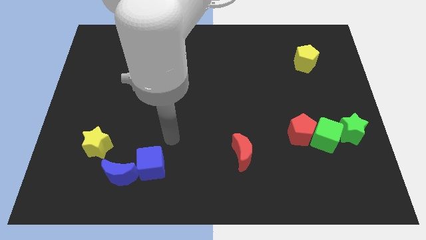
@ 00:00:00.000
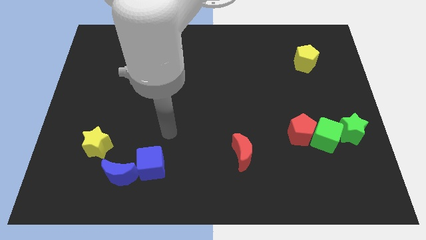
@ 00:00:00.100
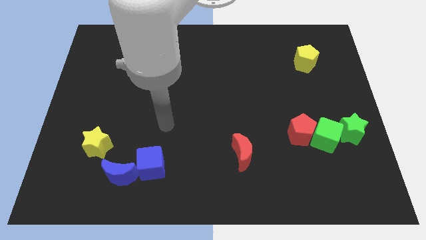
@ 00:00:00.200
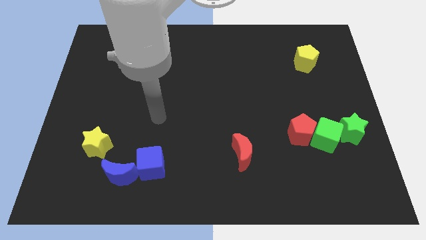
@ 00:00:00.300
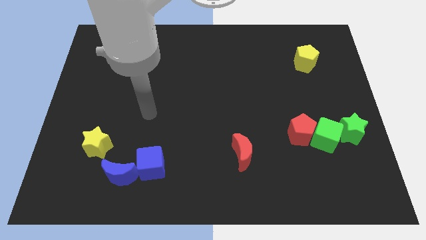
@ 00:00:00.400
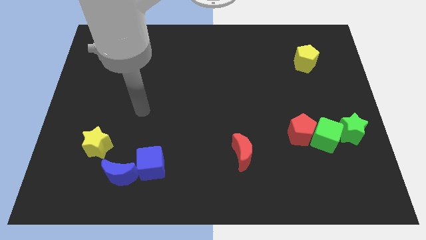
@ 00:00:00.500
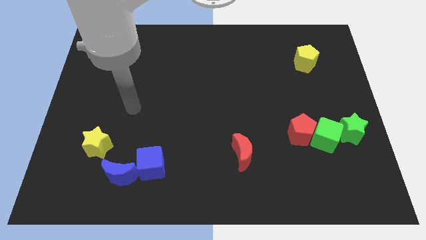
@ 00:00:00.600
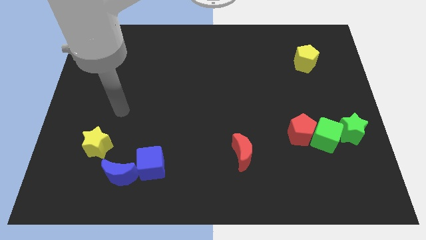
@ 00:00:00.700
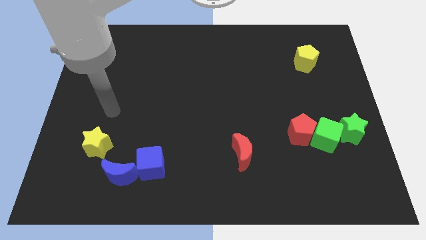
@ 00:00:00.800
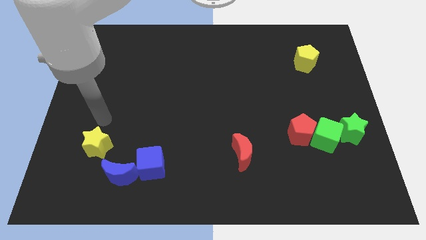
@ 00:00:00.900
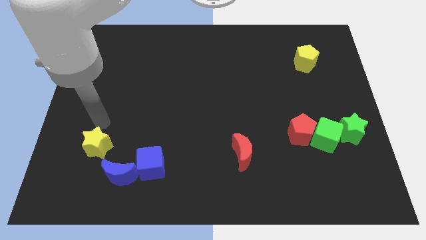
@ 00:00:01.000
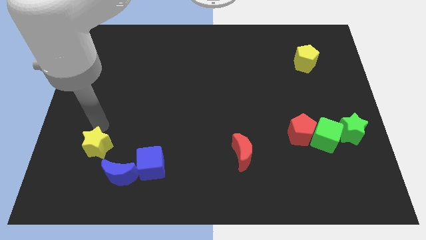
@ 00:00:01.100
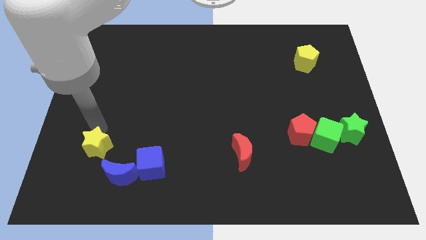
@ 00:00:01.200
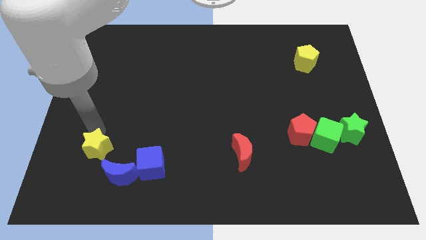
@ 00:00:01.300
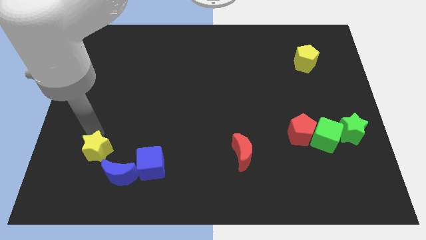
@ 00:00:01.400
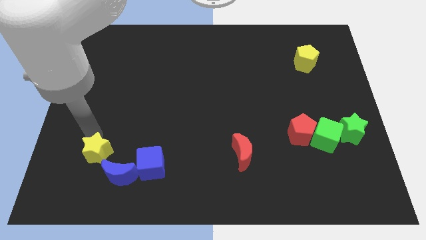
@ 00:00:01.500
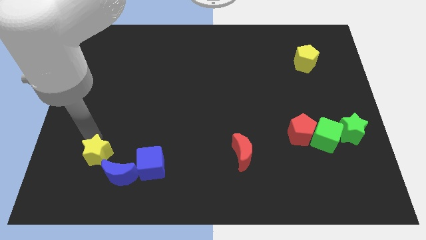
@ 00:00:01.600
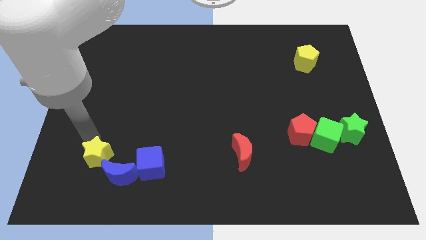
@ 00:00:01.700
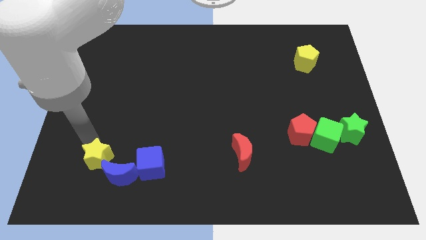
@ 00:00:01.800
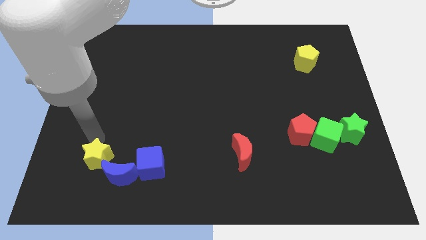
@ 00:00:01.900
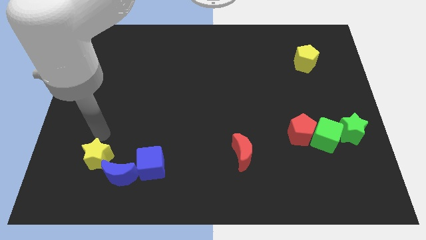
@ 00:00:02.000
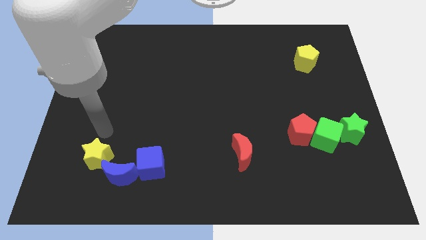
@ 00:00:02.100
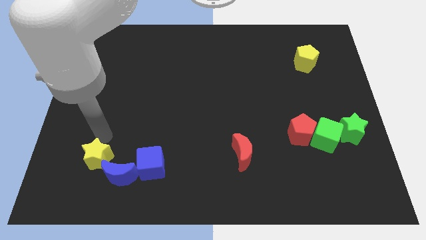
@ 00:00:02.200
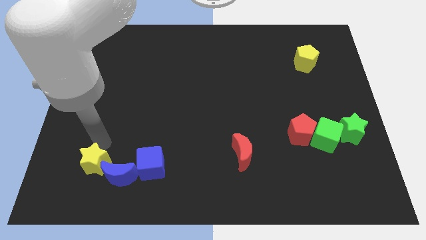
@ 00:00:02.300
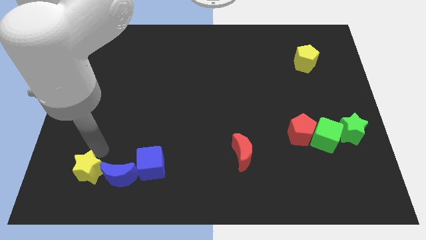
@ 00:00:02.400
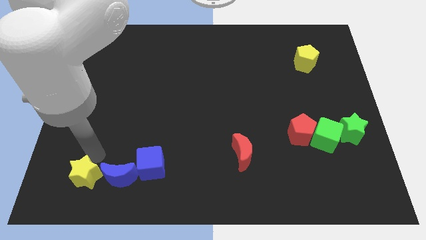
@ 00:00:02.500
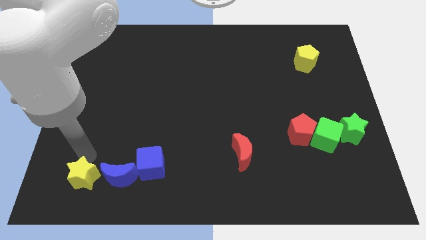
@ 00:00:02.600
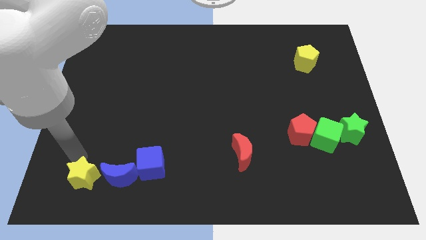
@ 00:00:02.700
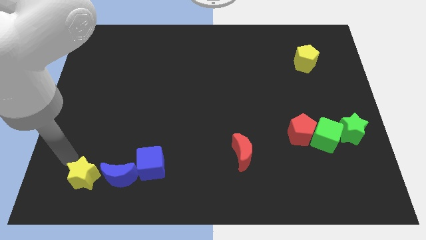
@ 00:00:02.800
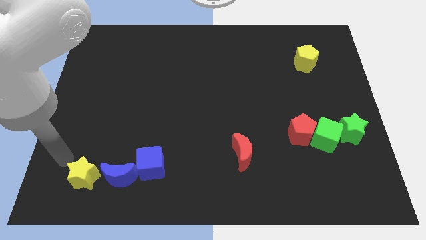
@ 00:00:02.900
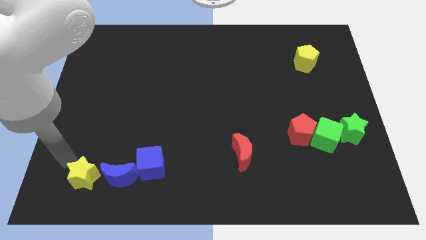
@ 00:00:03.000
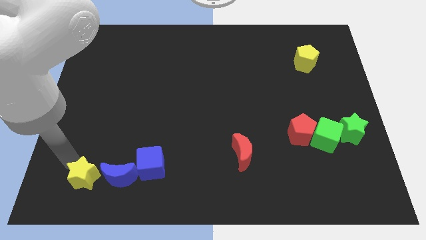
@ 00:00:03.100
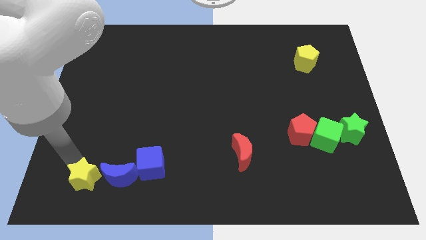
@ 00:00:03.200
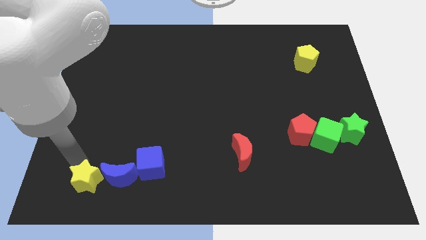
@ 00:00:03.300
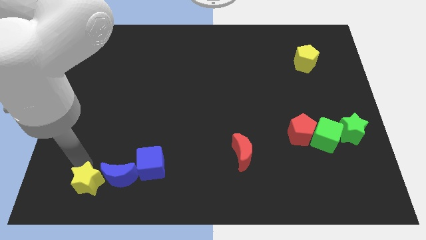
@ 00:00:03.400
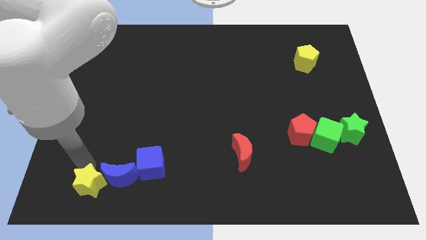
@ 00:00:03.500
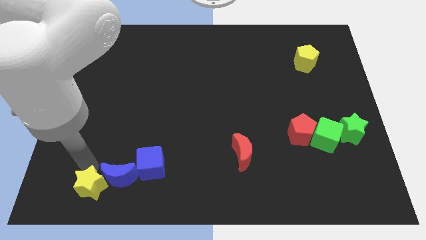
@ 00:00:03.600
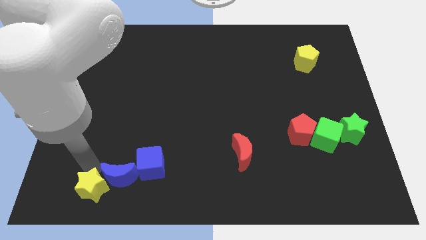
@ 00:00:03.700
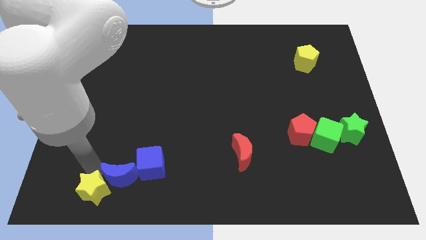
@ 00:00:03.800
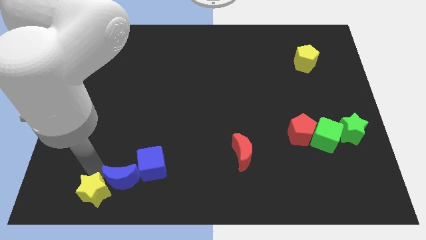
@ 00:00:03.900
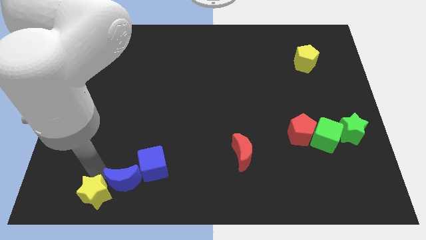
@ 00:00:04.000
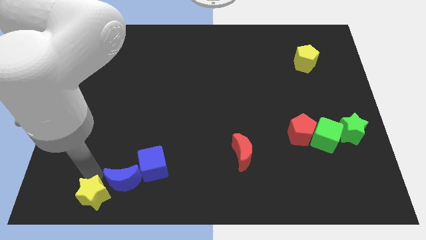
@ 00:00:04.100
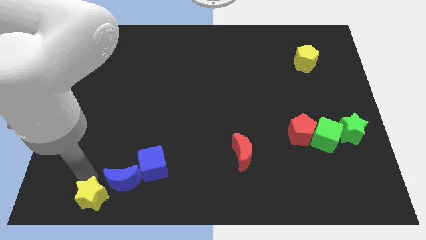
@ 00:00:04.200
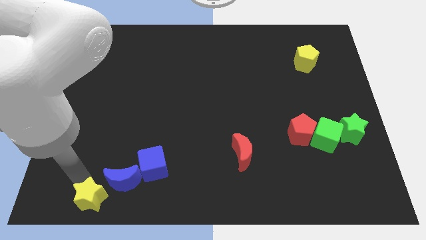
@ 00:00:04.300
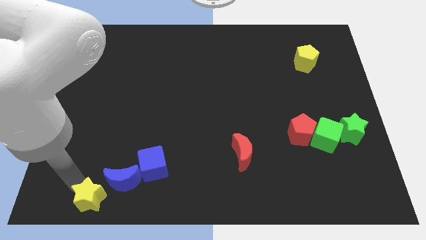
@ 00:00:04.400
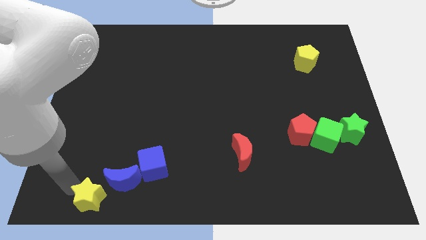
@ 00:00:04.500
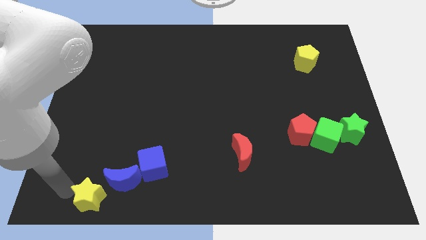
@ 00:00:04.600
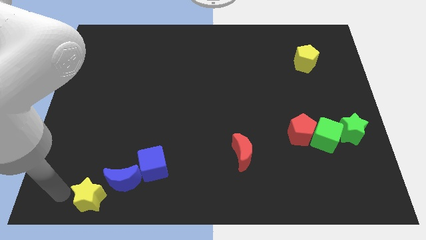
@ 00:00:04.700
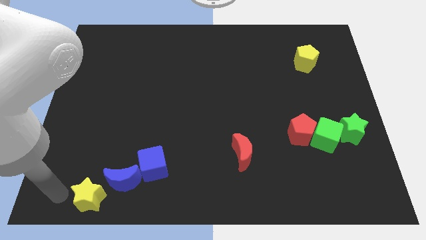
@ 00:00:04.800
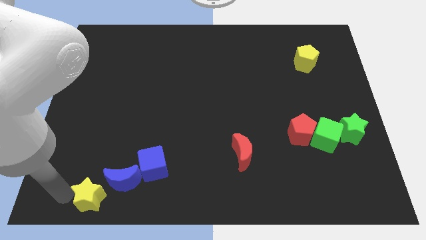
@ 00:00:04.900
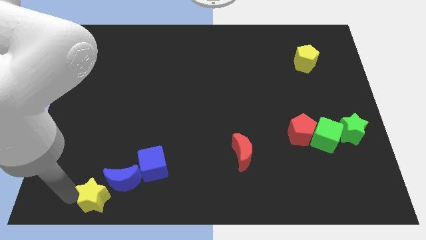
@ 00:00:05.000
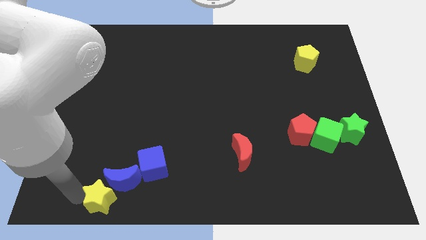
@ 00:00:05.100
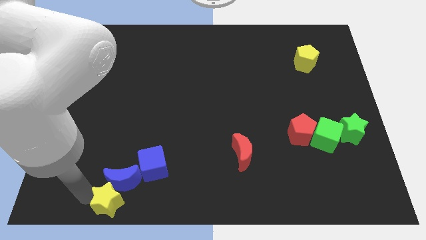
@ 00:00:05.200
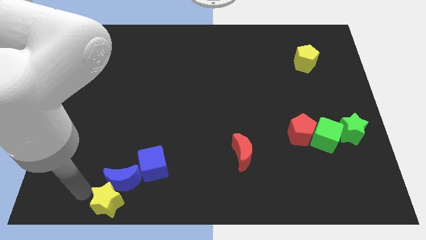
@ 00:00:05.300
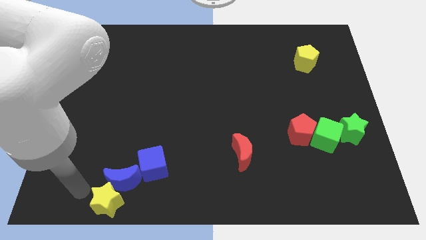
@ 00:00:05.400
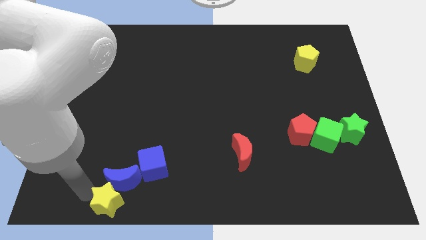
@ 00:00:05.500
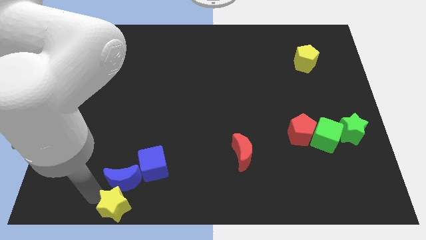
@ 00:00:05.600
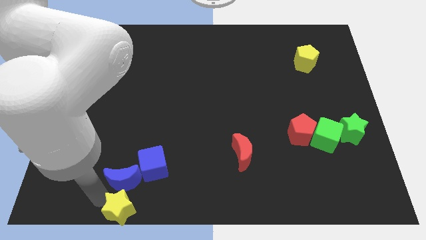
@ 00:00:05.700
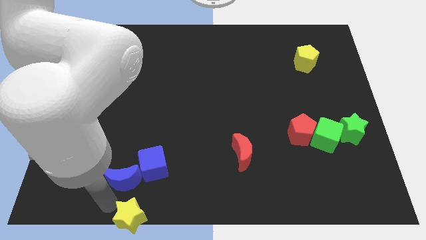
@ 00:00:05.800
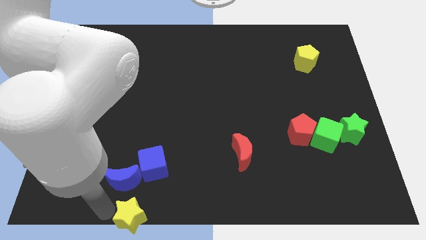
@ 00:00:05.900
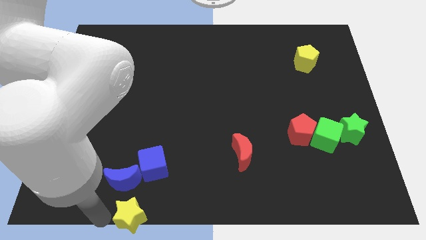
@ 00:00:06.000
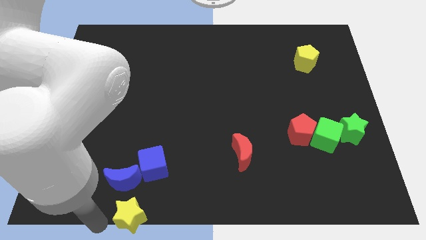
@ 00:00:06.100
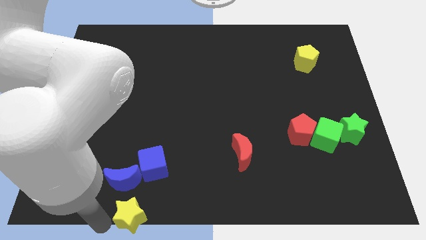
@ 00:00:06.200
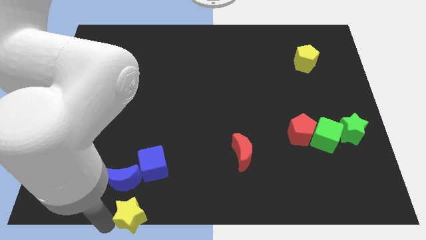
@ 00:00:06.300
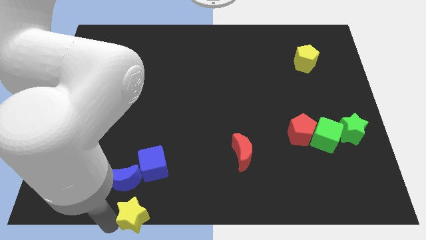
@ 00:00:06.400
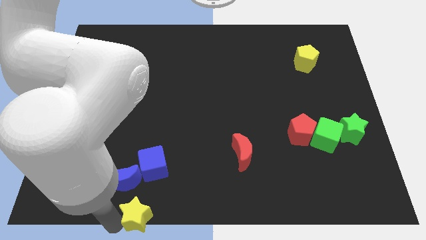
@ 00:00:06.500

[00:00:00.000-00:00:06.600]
slide the yellow star to the bottom side

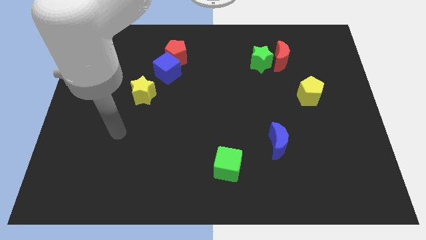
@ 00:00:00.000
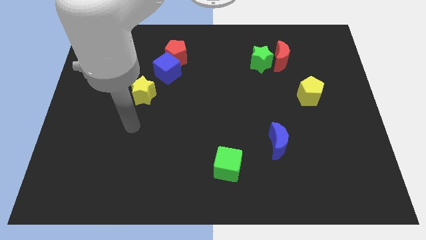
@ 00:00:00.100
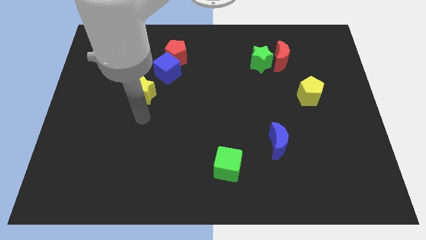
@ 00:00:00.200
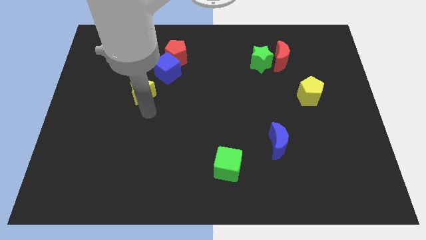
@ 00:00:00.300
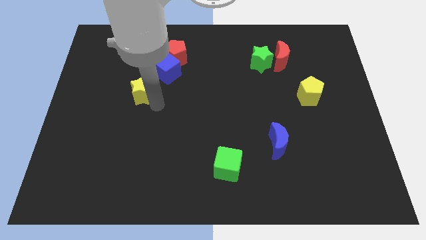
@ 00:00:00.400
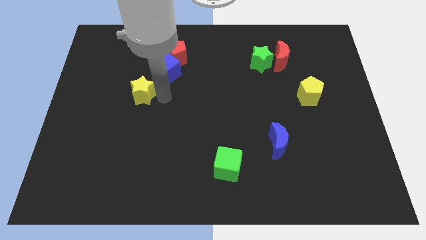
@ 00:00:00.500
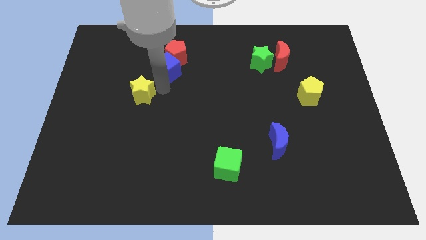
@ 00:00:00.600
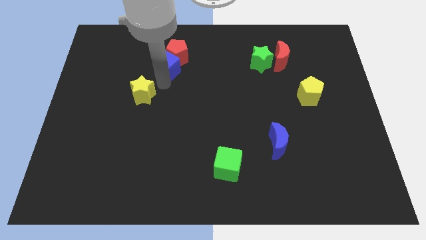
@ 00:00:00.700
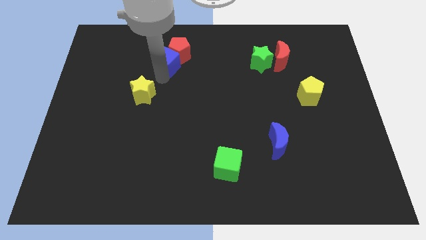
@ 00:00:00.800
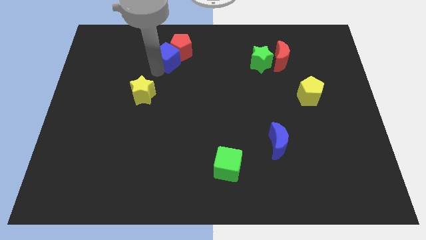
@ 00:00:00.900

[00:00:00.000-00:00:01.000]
push the red pentagon to the towards your base
